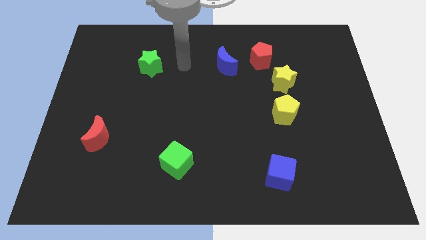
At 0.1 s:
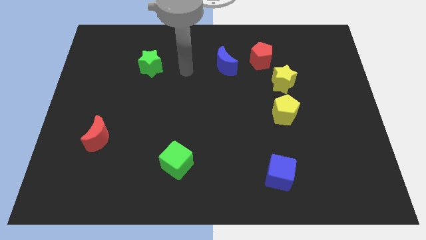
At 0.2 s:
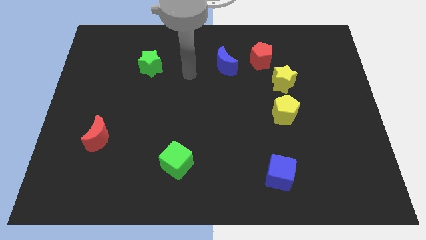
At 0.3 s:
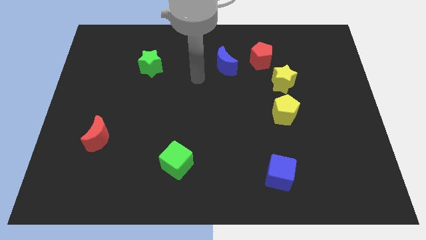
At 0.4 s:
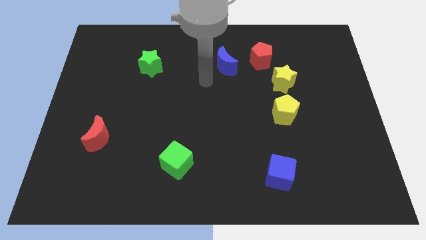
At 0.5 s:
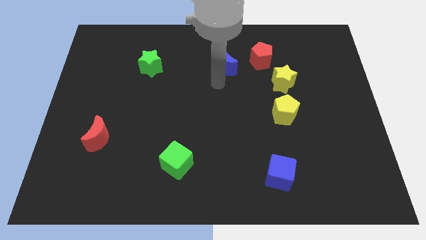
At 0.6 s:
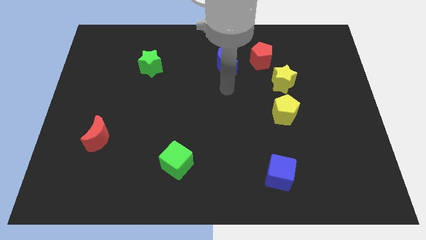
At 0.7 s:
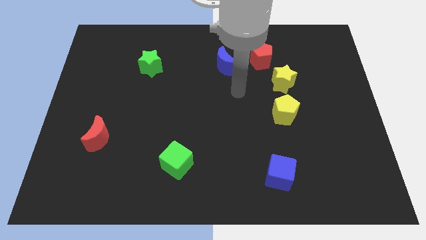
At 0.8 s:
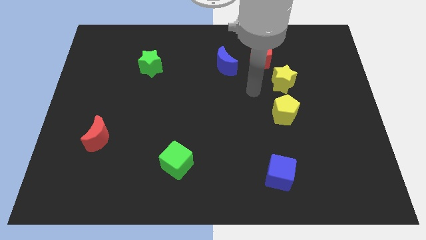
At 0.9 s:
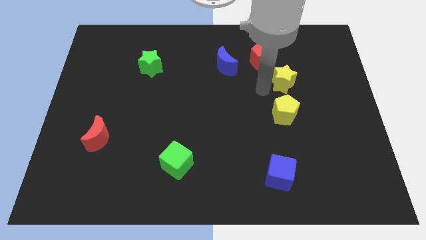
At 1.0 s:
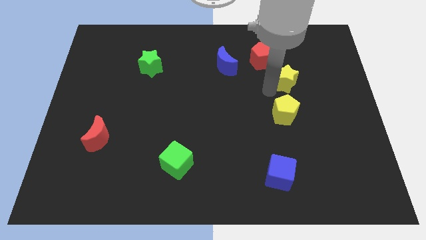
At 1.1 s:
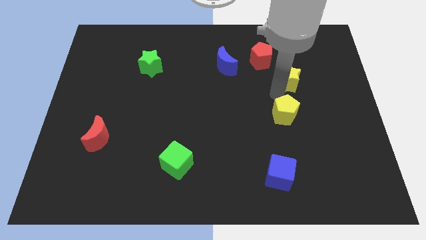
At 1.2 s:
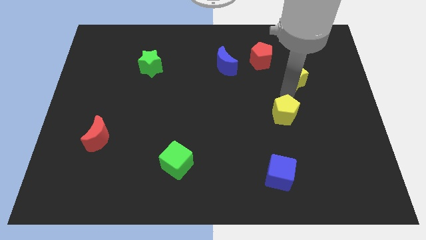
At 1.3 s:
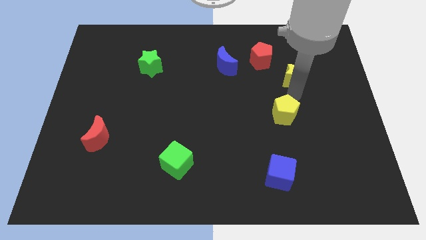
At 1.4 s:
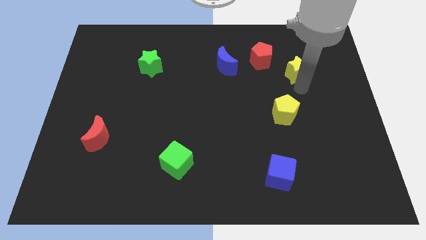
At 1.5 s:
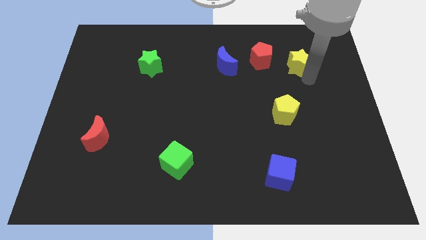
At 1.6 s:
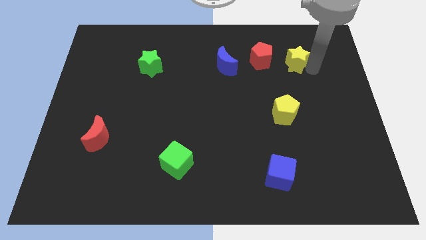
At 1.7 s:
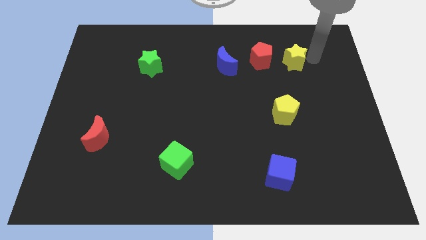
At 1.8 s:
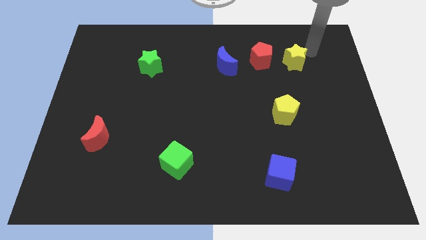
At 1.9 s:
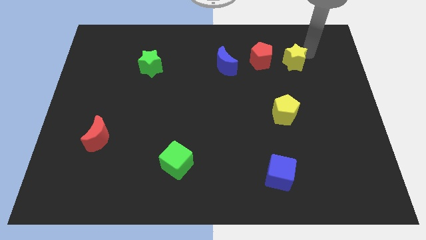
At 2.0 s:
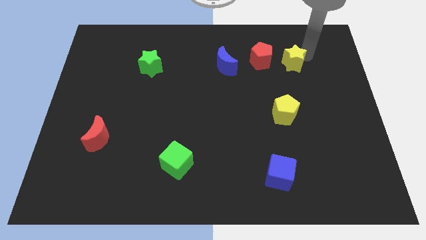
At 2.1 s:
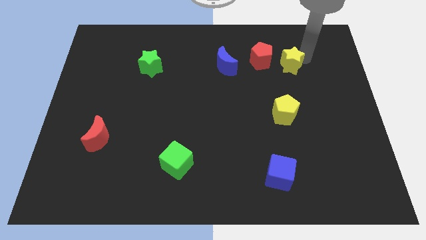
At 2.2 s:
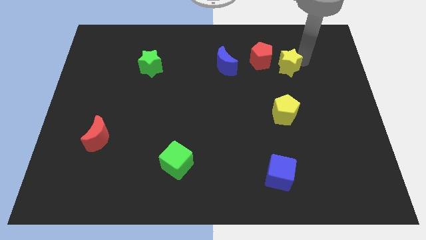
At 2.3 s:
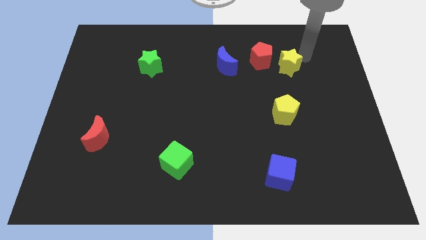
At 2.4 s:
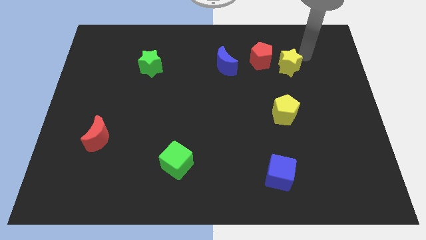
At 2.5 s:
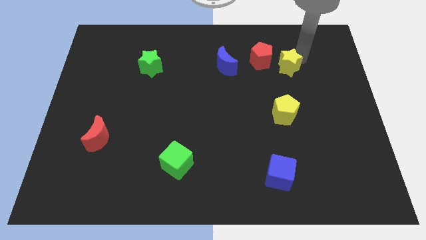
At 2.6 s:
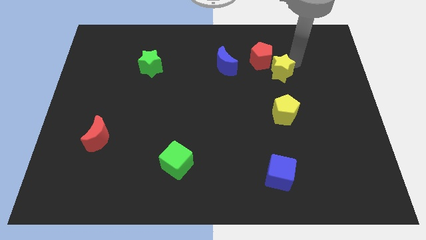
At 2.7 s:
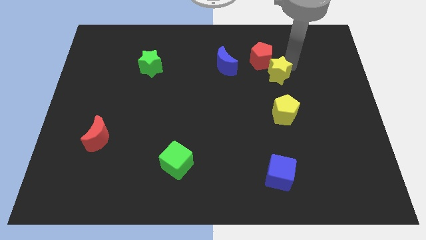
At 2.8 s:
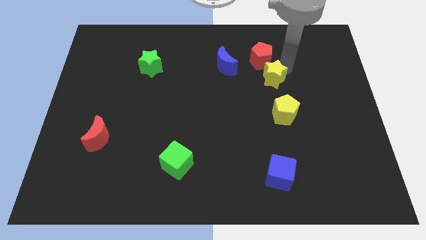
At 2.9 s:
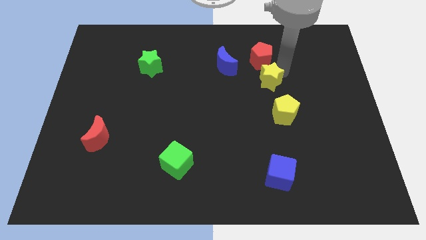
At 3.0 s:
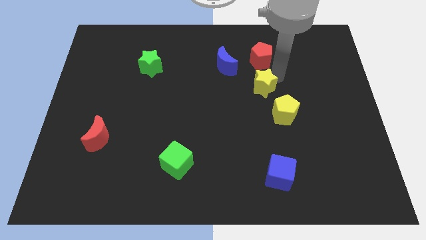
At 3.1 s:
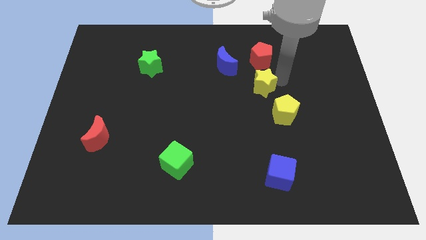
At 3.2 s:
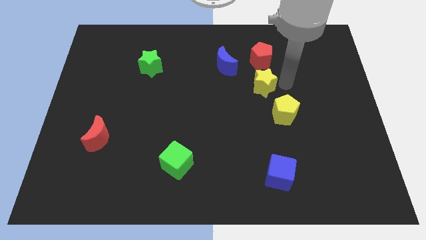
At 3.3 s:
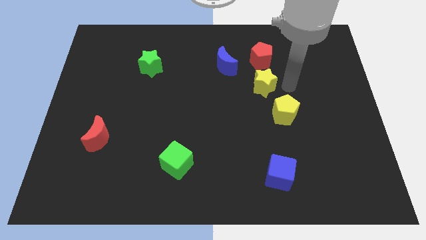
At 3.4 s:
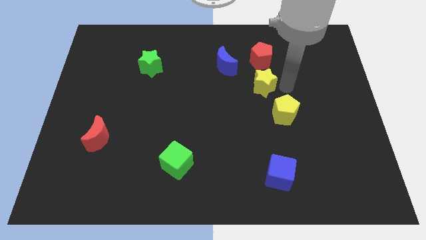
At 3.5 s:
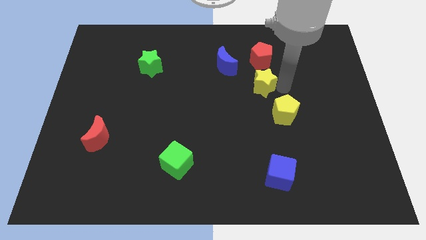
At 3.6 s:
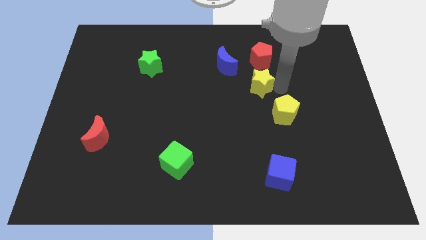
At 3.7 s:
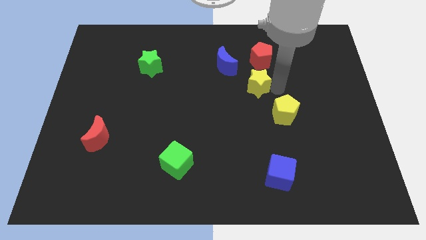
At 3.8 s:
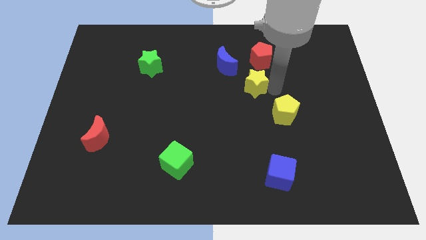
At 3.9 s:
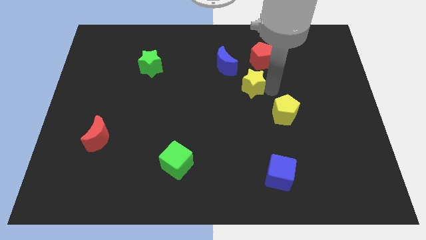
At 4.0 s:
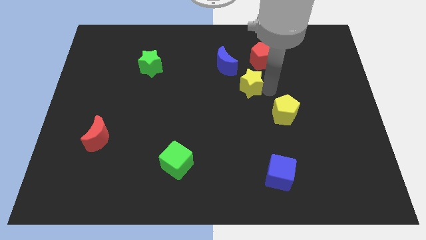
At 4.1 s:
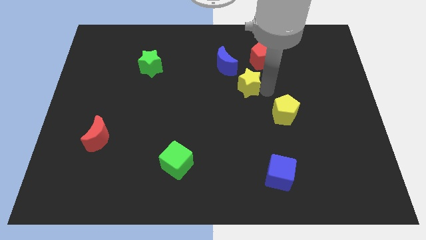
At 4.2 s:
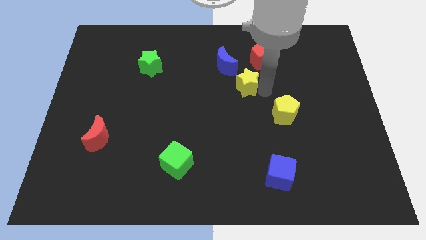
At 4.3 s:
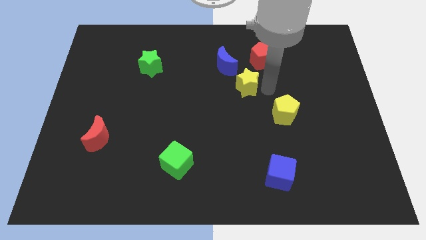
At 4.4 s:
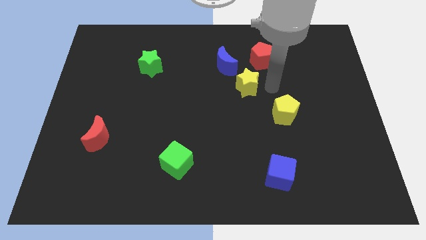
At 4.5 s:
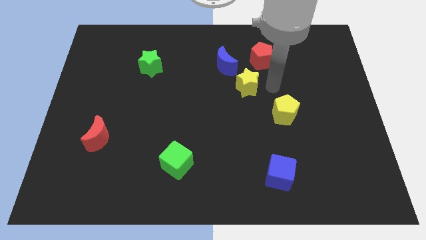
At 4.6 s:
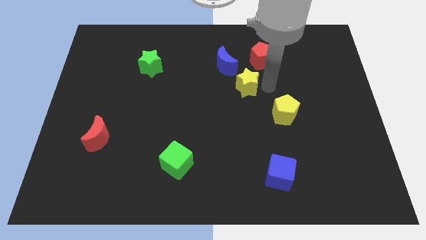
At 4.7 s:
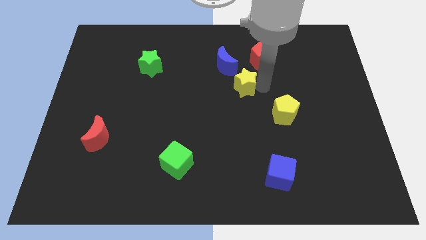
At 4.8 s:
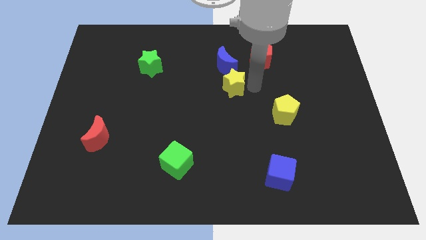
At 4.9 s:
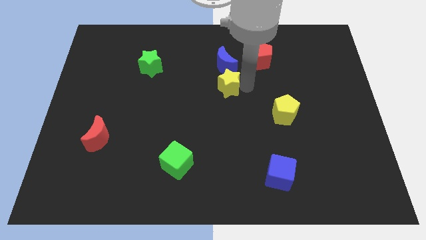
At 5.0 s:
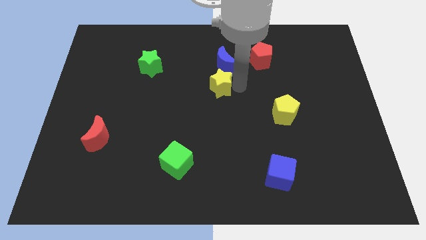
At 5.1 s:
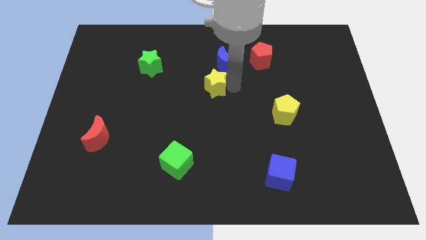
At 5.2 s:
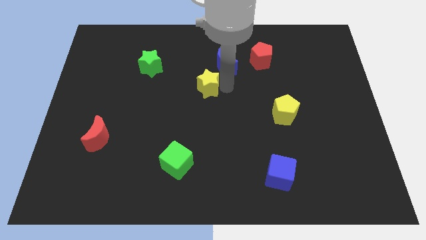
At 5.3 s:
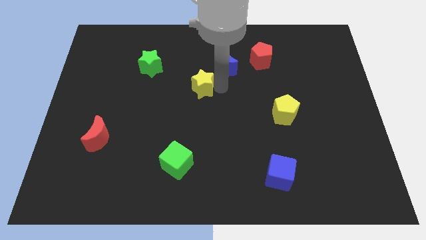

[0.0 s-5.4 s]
move the yellow star to the left

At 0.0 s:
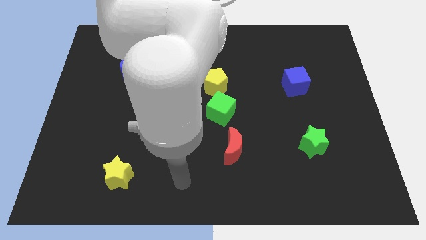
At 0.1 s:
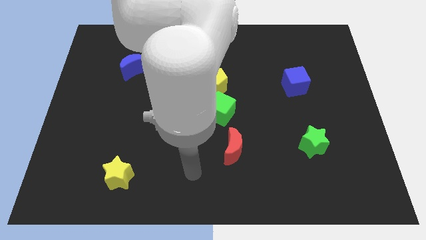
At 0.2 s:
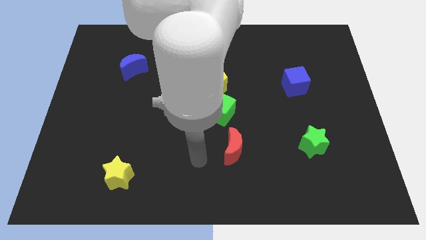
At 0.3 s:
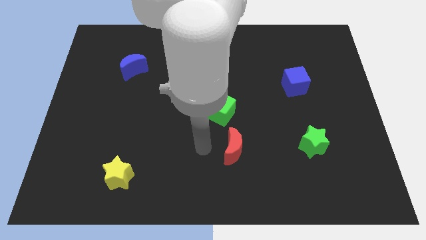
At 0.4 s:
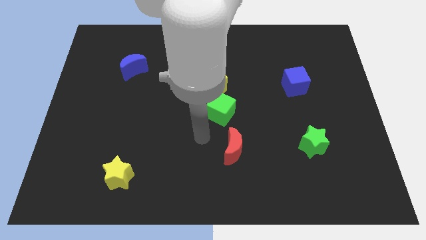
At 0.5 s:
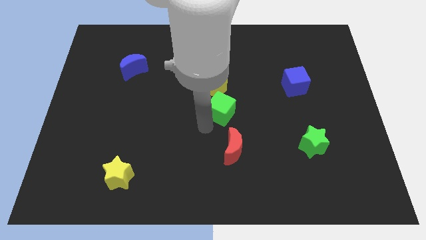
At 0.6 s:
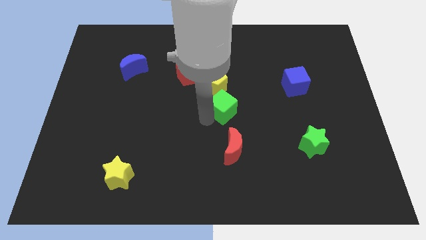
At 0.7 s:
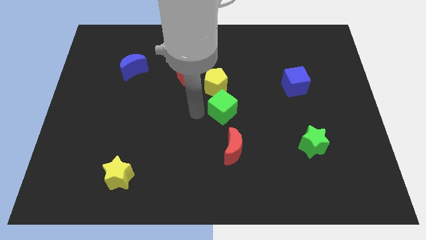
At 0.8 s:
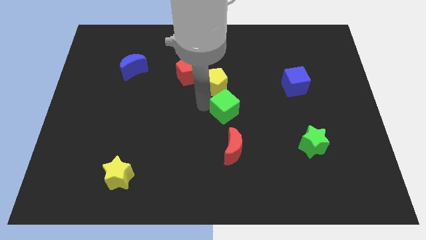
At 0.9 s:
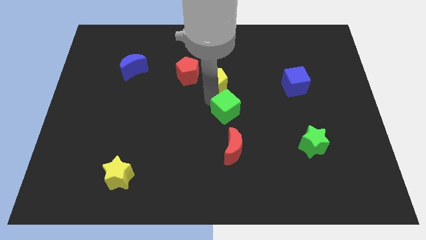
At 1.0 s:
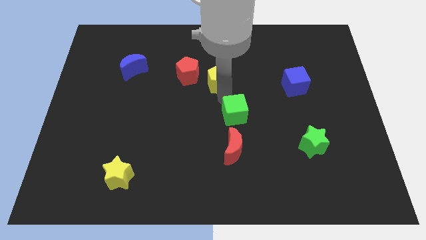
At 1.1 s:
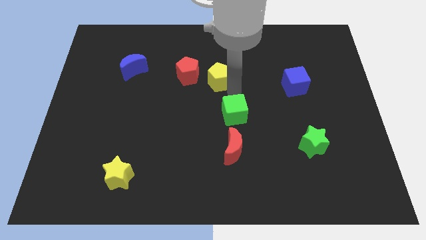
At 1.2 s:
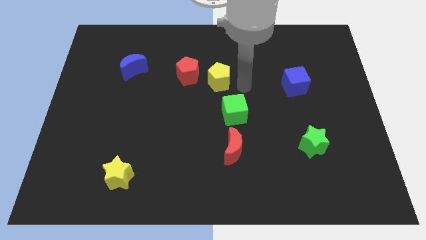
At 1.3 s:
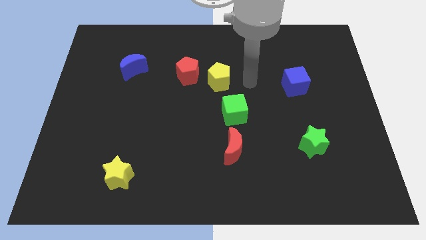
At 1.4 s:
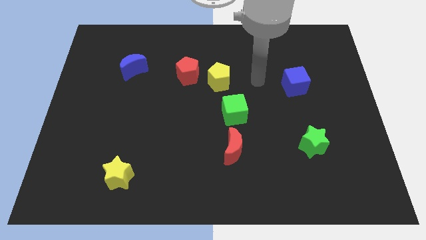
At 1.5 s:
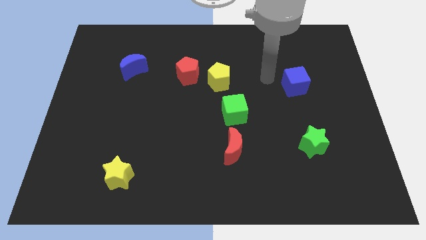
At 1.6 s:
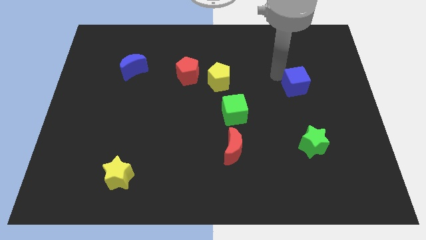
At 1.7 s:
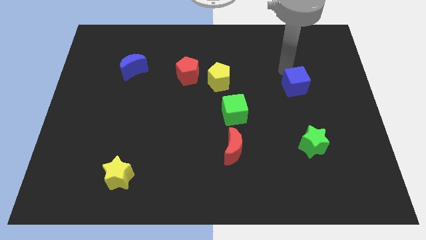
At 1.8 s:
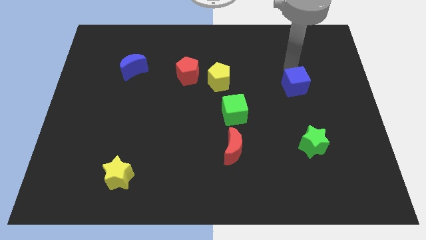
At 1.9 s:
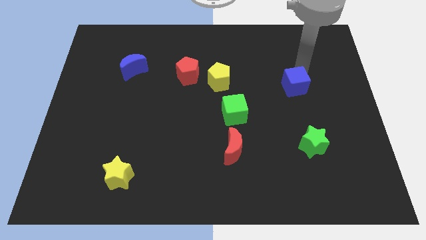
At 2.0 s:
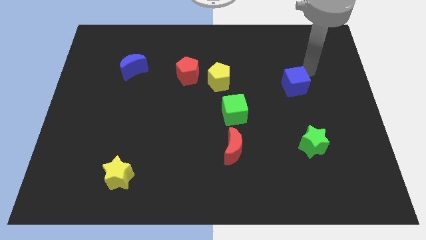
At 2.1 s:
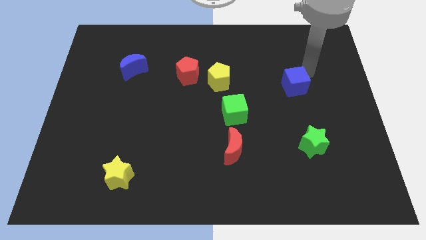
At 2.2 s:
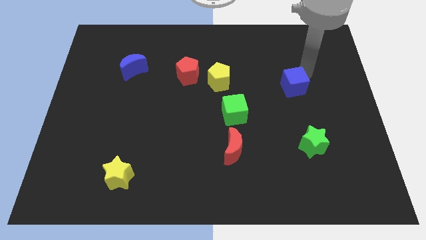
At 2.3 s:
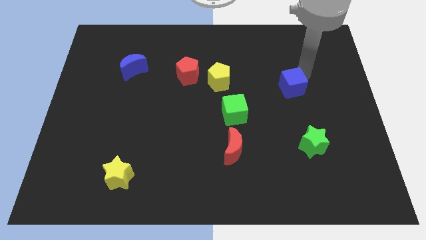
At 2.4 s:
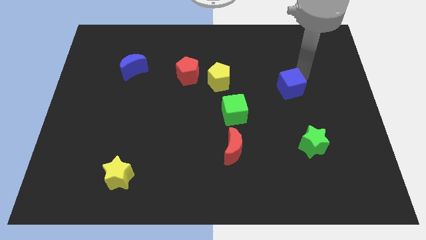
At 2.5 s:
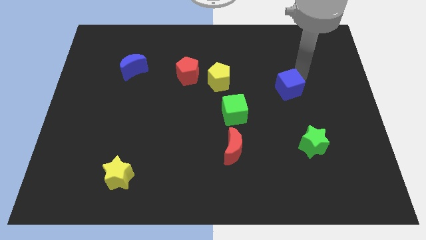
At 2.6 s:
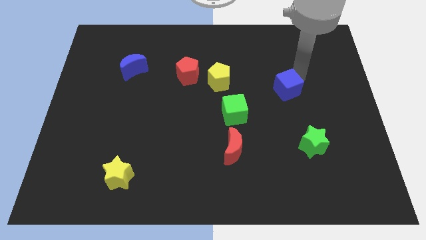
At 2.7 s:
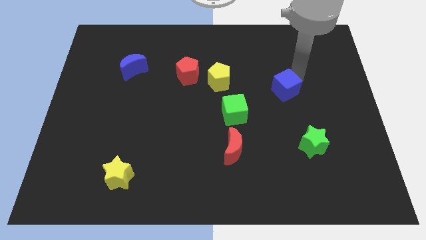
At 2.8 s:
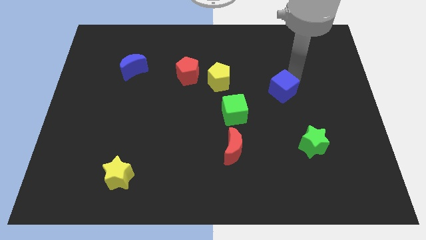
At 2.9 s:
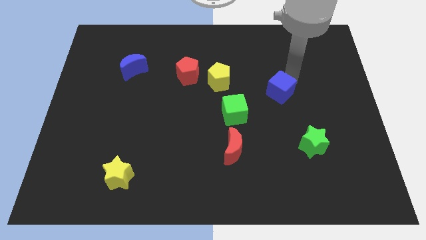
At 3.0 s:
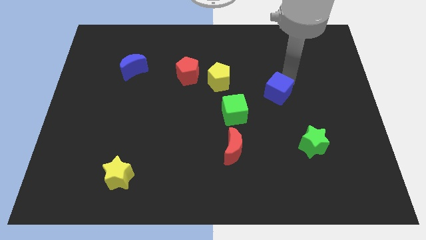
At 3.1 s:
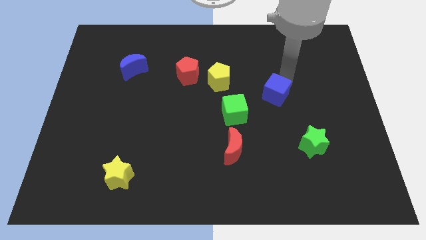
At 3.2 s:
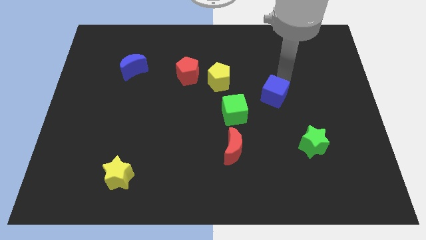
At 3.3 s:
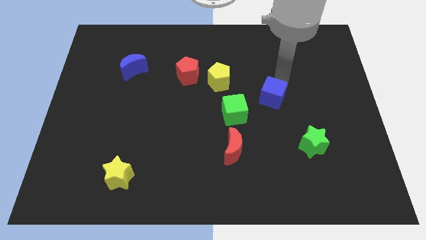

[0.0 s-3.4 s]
slide the blue cube diagonally down and left a little
